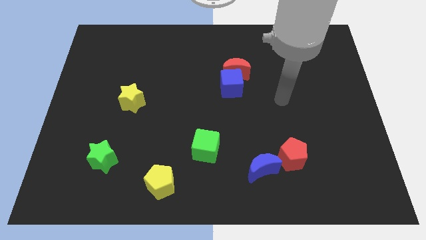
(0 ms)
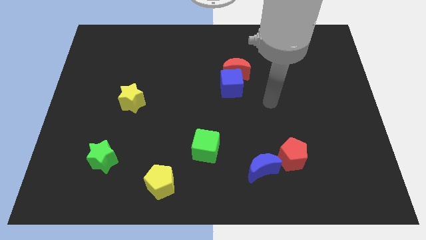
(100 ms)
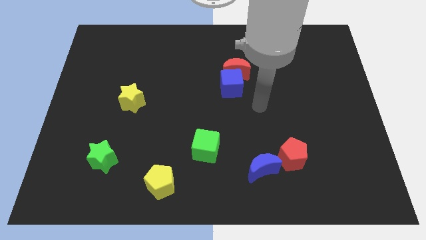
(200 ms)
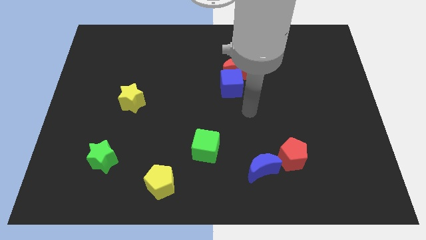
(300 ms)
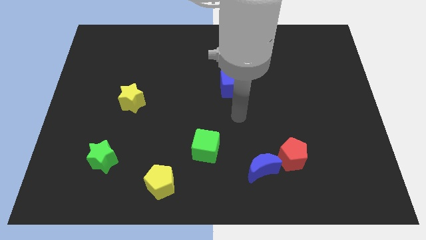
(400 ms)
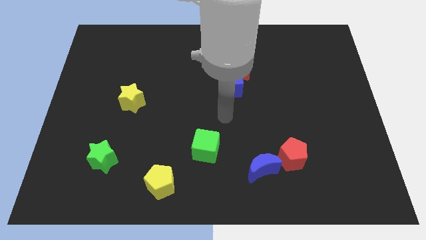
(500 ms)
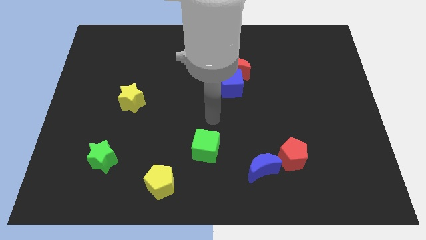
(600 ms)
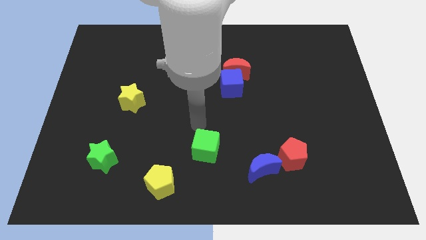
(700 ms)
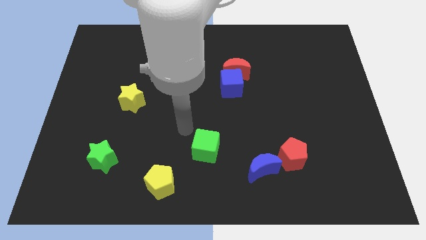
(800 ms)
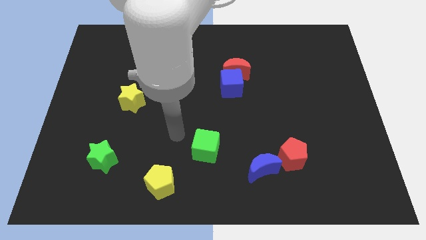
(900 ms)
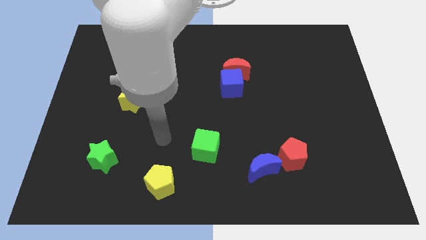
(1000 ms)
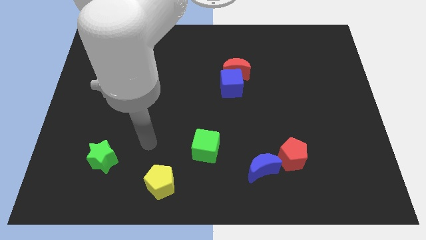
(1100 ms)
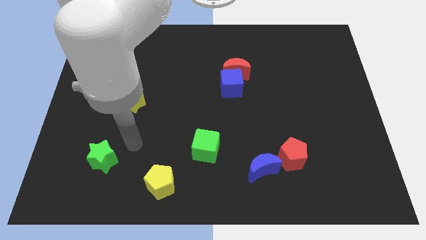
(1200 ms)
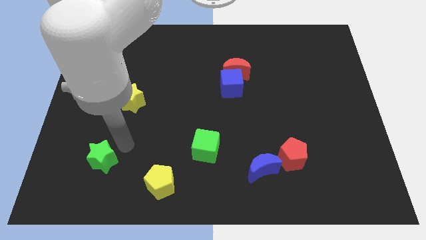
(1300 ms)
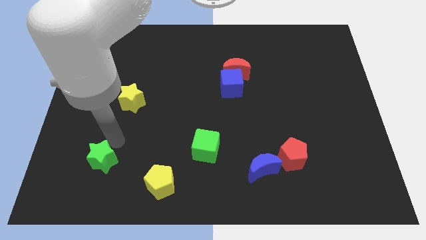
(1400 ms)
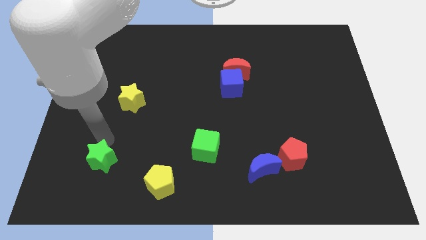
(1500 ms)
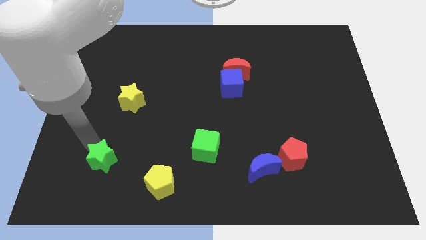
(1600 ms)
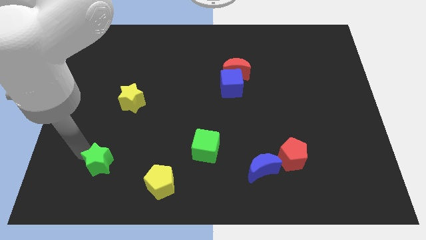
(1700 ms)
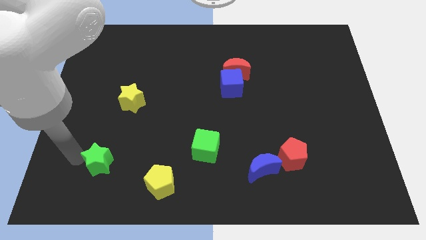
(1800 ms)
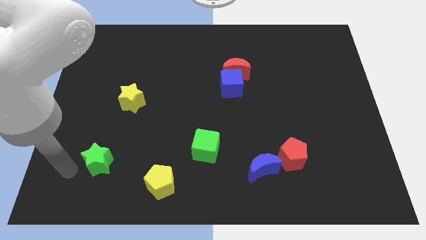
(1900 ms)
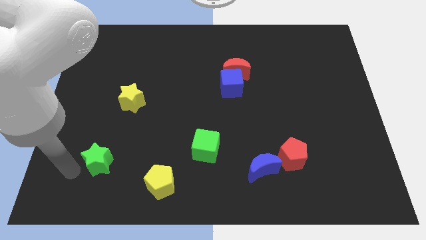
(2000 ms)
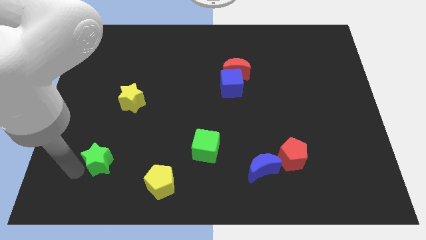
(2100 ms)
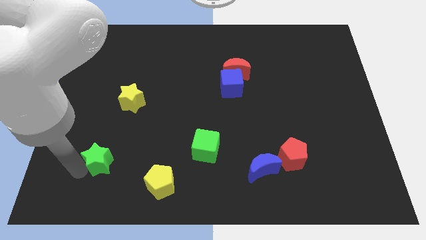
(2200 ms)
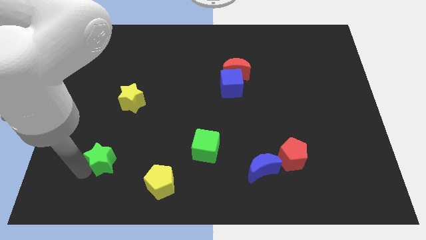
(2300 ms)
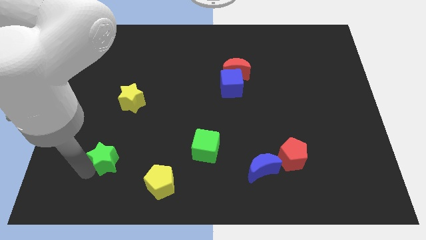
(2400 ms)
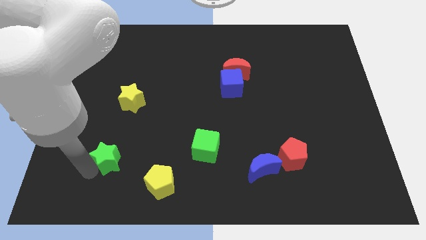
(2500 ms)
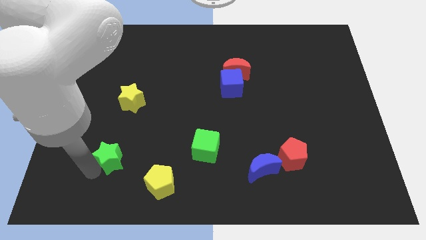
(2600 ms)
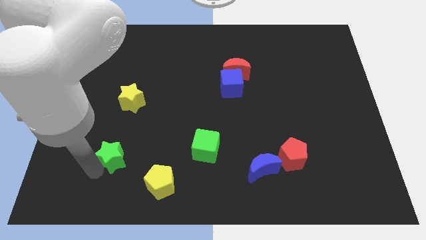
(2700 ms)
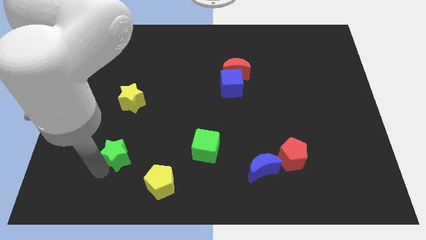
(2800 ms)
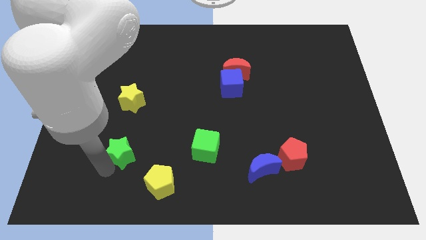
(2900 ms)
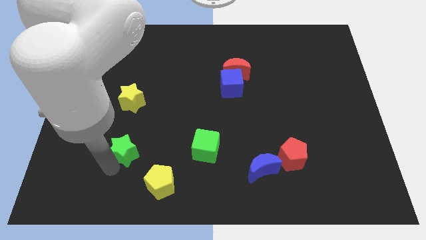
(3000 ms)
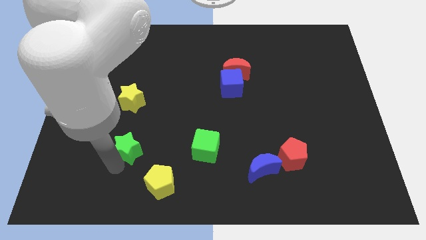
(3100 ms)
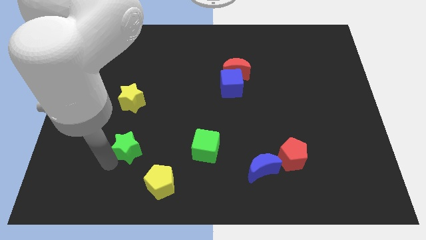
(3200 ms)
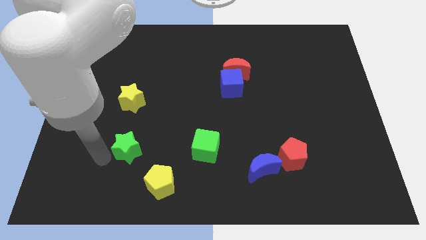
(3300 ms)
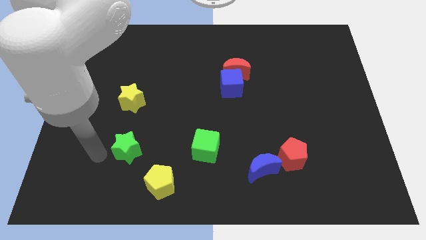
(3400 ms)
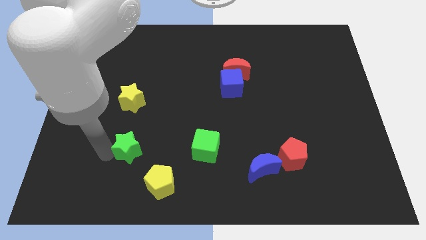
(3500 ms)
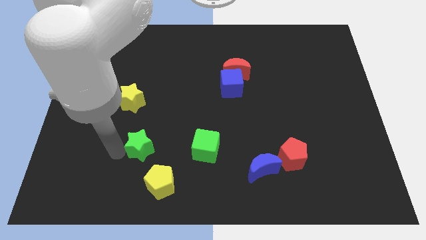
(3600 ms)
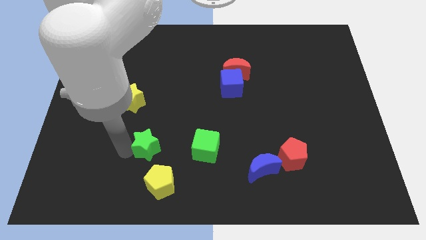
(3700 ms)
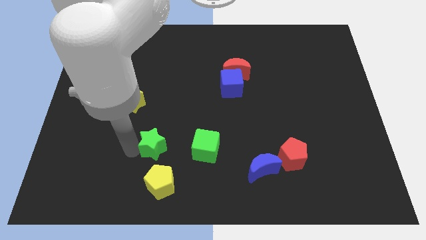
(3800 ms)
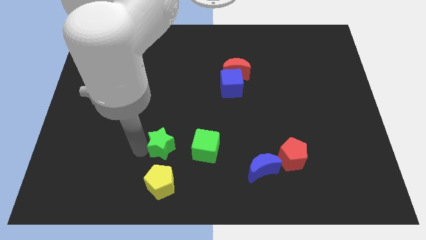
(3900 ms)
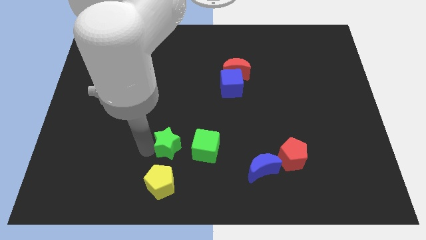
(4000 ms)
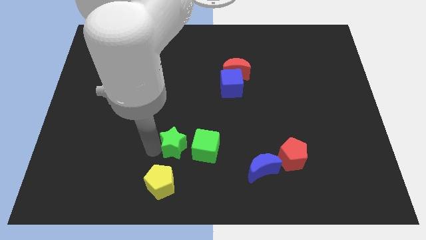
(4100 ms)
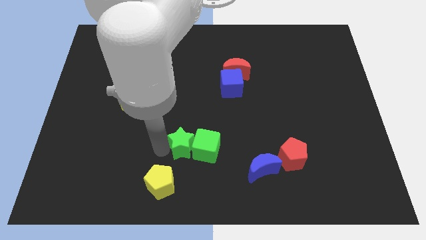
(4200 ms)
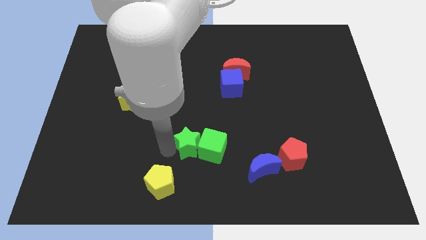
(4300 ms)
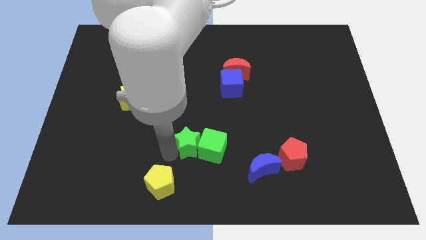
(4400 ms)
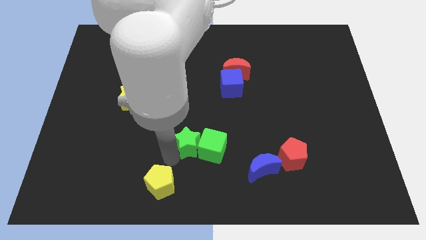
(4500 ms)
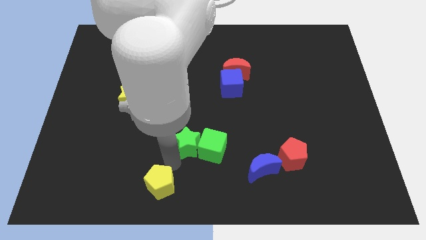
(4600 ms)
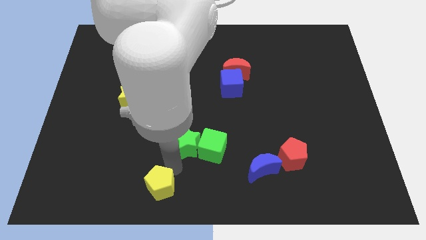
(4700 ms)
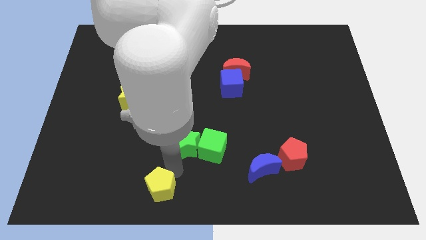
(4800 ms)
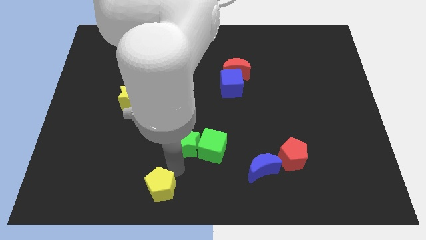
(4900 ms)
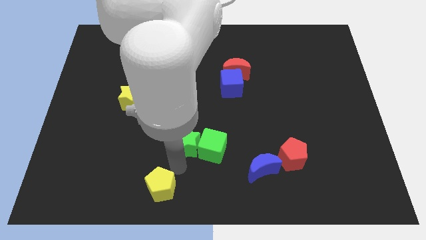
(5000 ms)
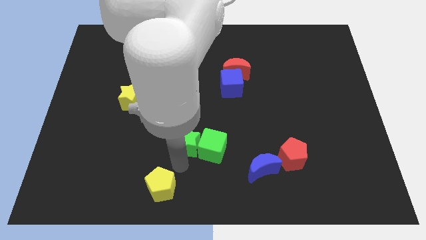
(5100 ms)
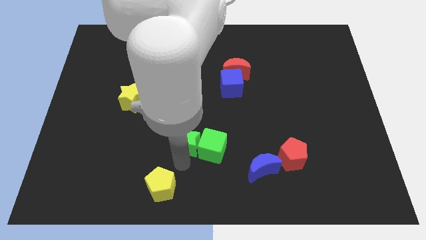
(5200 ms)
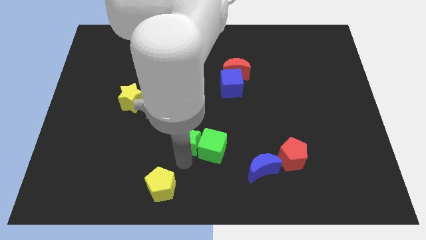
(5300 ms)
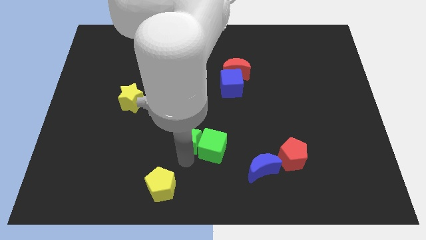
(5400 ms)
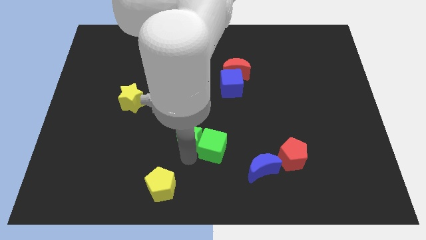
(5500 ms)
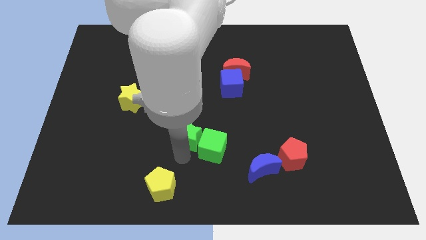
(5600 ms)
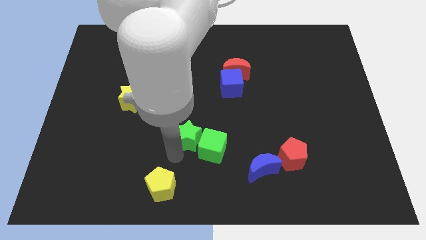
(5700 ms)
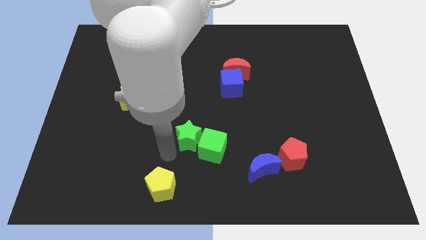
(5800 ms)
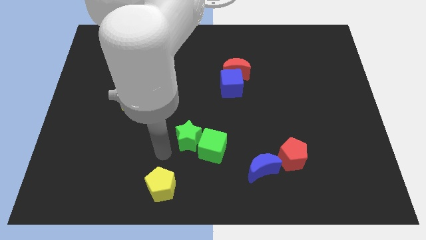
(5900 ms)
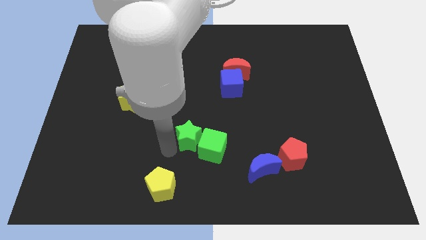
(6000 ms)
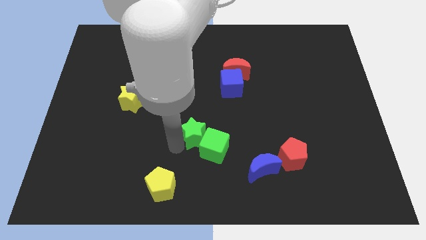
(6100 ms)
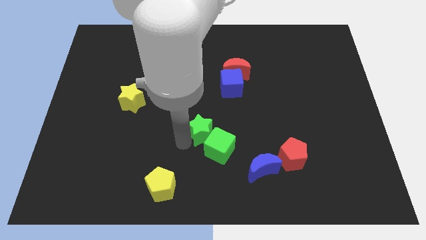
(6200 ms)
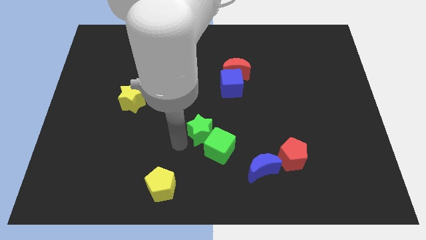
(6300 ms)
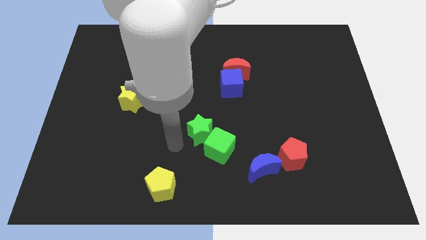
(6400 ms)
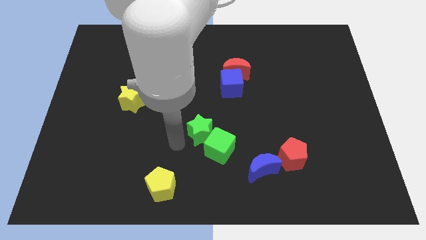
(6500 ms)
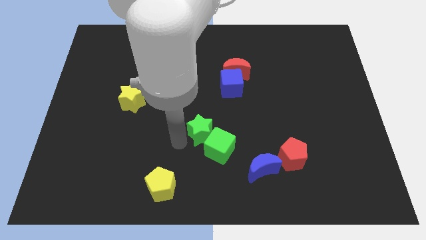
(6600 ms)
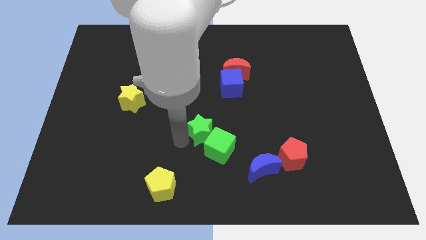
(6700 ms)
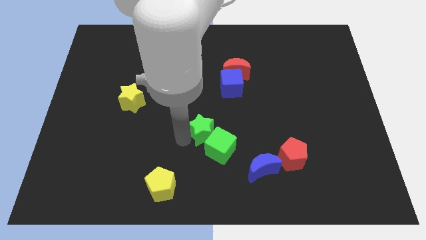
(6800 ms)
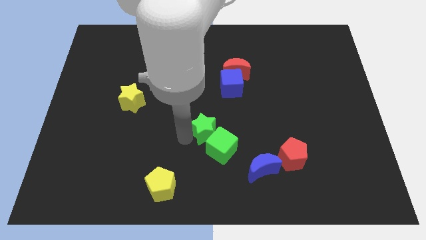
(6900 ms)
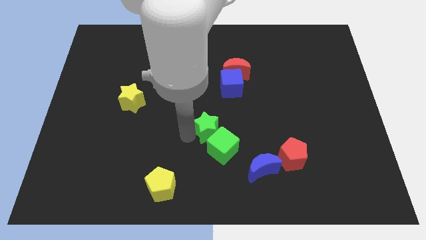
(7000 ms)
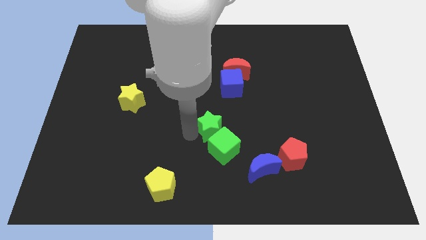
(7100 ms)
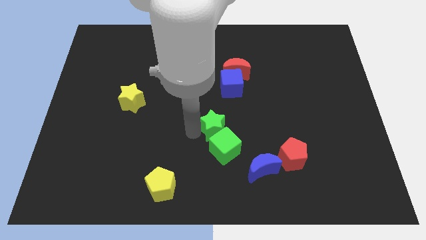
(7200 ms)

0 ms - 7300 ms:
put the green star below the blue cube

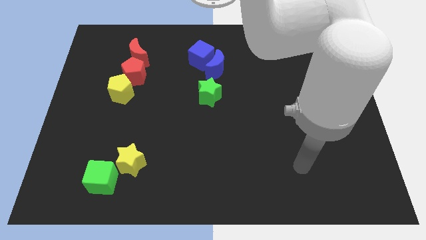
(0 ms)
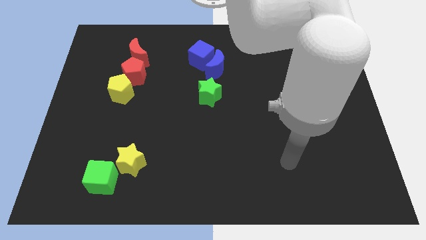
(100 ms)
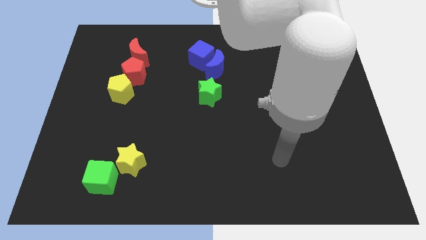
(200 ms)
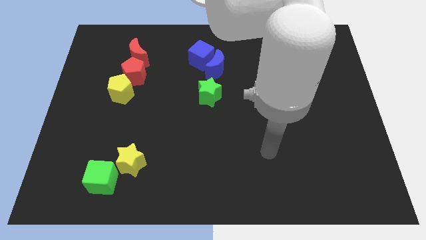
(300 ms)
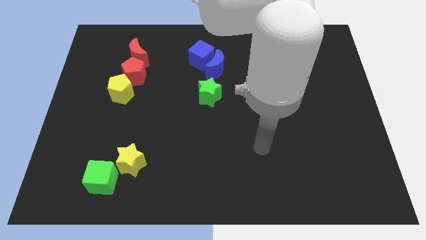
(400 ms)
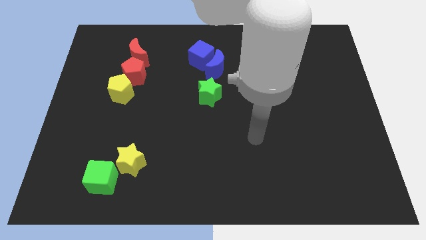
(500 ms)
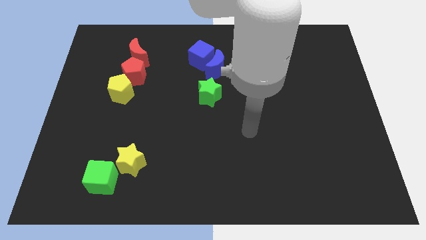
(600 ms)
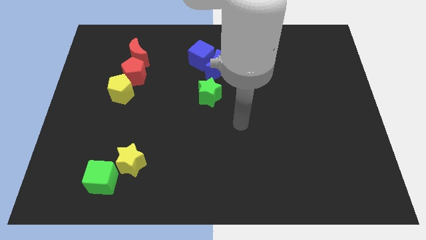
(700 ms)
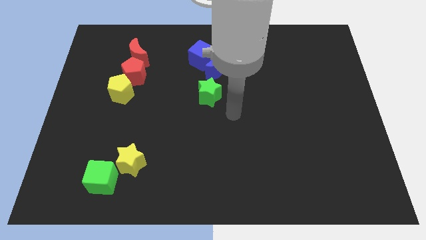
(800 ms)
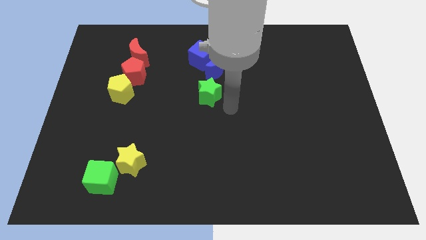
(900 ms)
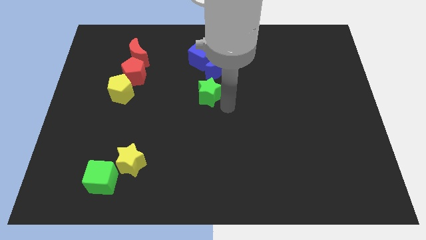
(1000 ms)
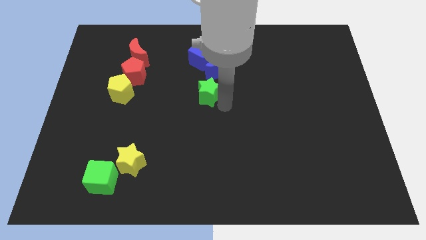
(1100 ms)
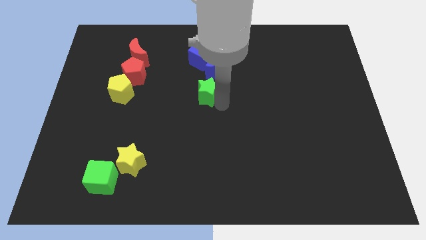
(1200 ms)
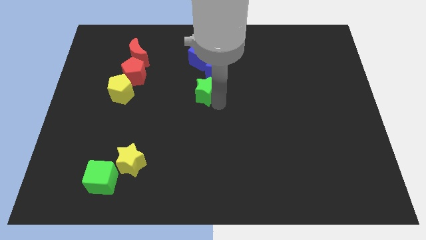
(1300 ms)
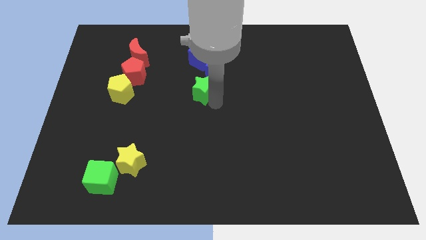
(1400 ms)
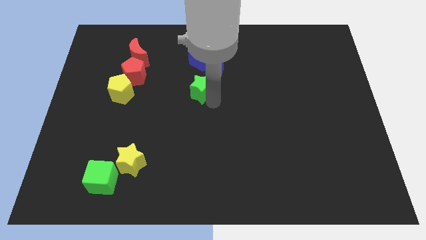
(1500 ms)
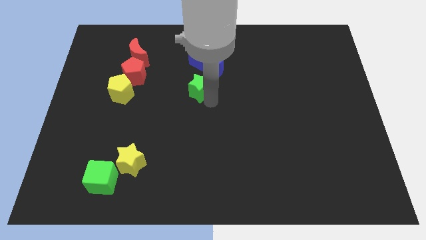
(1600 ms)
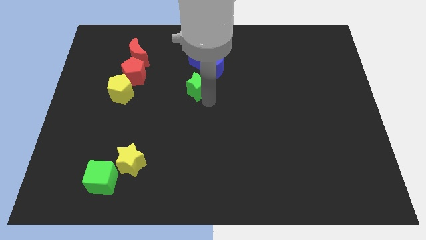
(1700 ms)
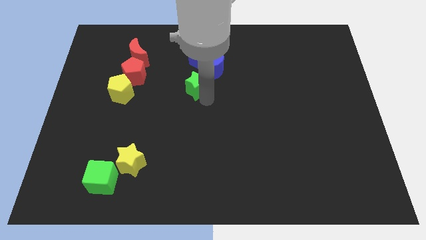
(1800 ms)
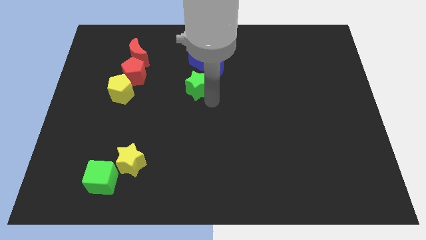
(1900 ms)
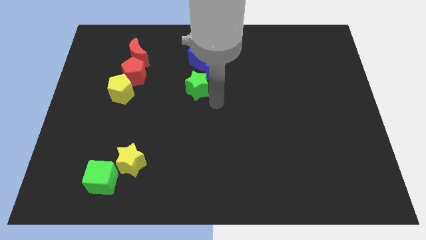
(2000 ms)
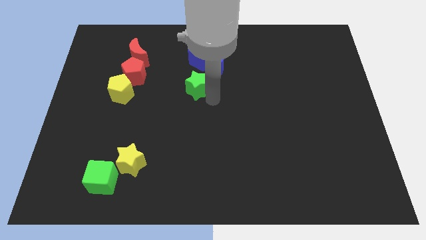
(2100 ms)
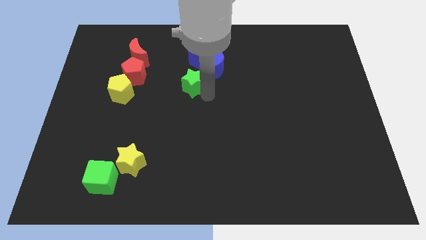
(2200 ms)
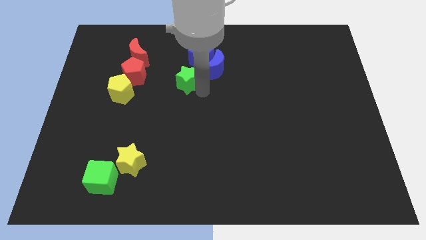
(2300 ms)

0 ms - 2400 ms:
push the green star to the bottom left of the blue cube
